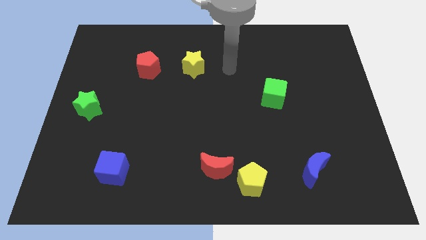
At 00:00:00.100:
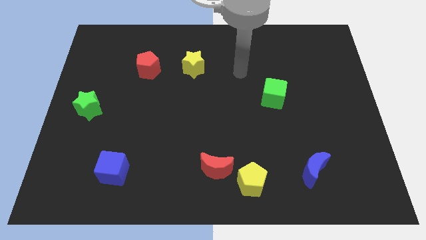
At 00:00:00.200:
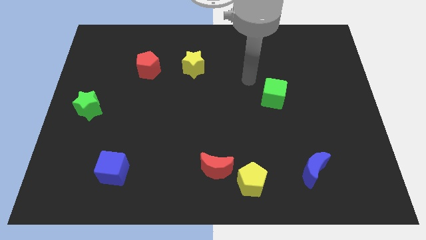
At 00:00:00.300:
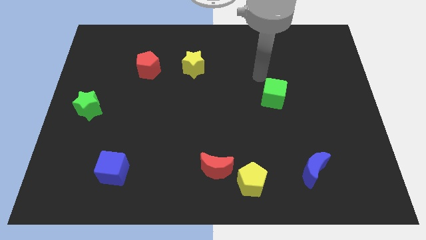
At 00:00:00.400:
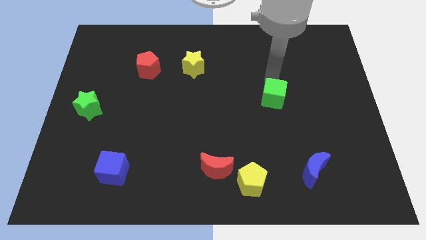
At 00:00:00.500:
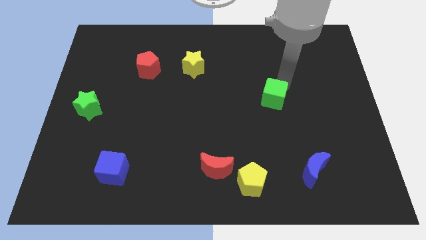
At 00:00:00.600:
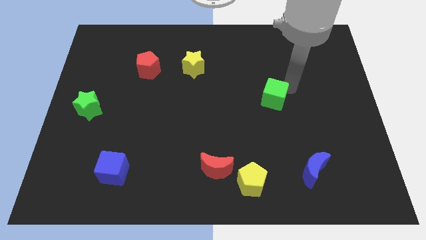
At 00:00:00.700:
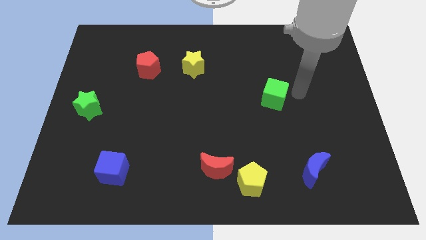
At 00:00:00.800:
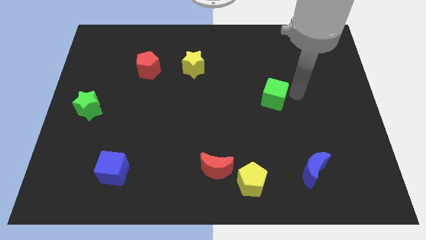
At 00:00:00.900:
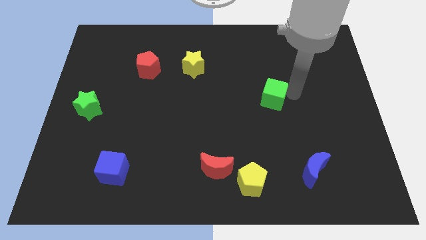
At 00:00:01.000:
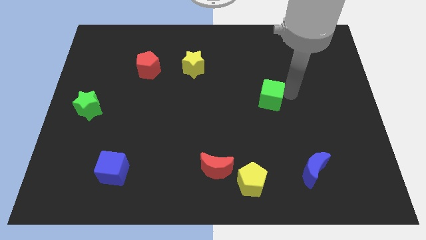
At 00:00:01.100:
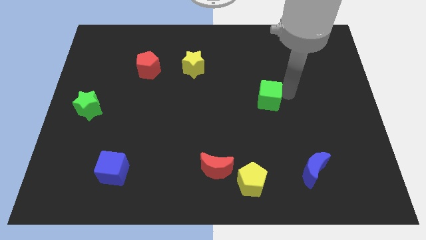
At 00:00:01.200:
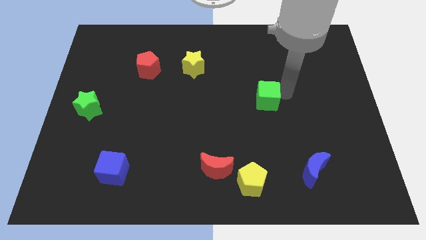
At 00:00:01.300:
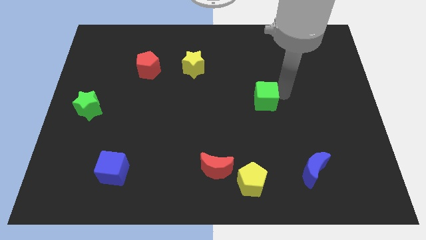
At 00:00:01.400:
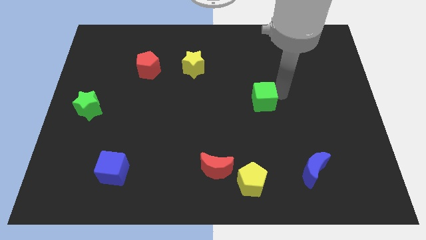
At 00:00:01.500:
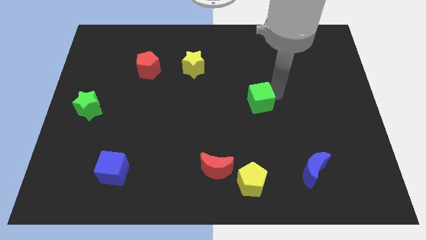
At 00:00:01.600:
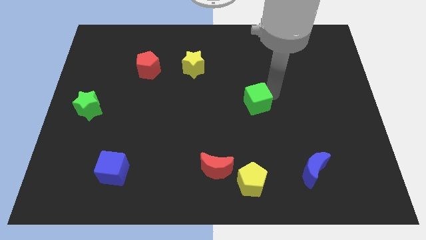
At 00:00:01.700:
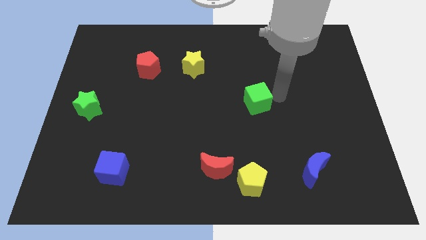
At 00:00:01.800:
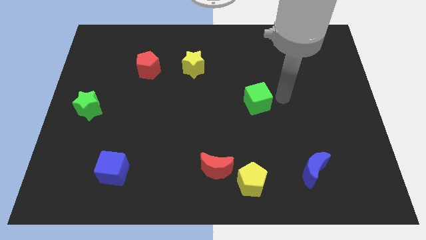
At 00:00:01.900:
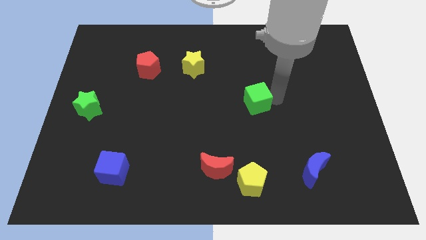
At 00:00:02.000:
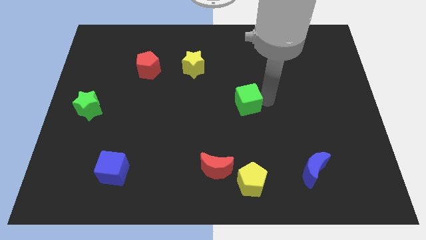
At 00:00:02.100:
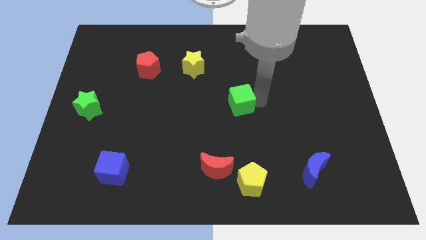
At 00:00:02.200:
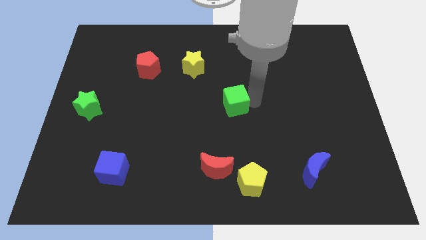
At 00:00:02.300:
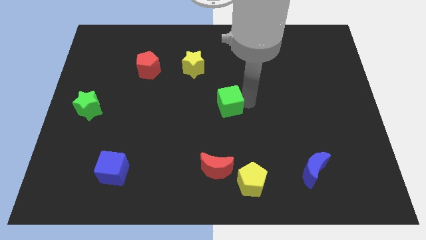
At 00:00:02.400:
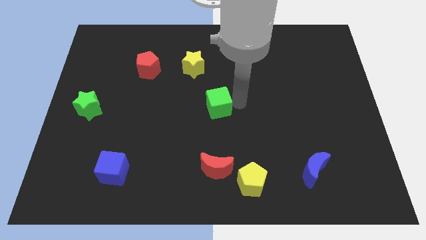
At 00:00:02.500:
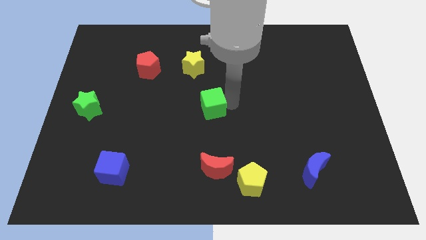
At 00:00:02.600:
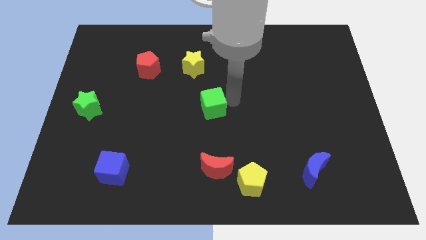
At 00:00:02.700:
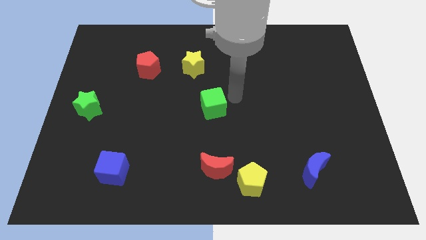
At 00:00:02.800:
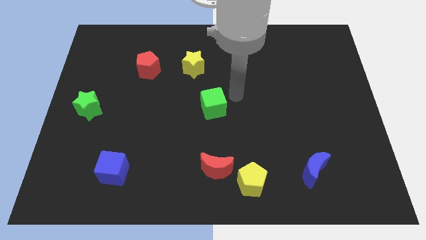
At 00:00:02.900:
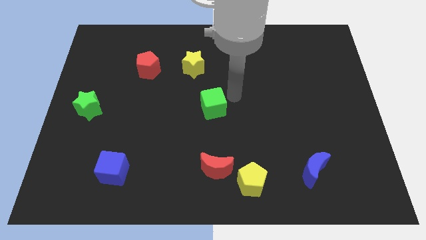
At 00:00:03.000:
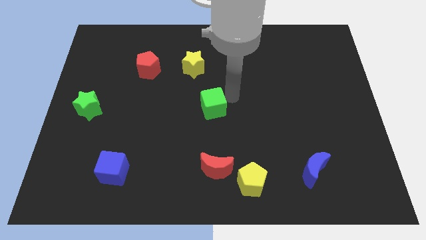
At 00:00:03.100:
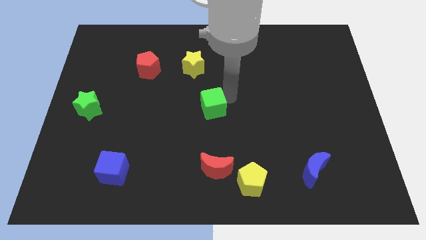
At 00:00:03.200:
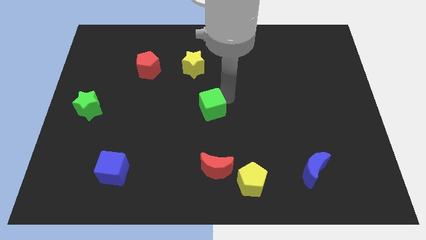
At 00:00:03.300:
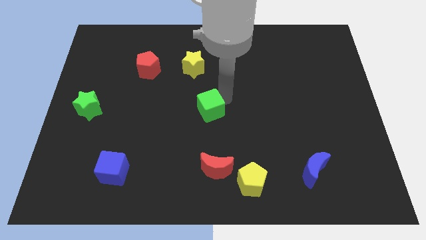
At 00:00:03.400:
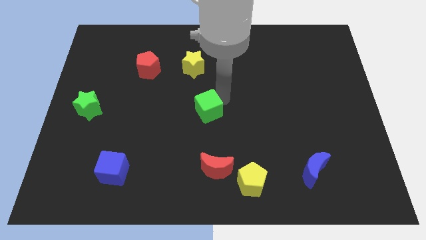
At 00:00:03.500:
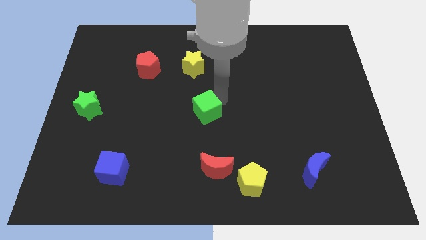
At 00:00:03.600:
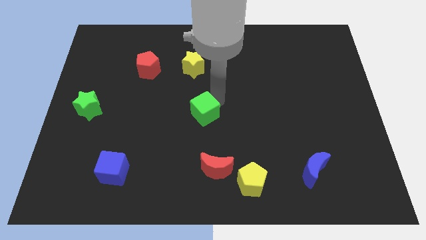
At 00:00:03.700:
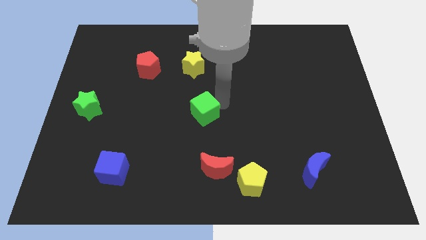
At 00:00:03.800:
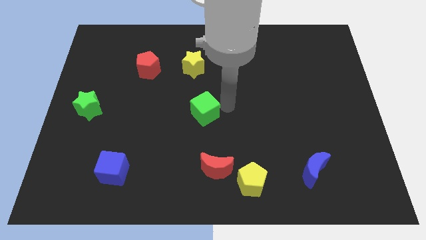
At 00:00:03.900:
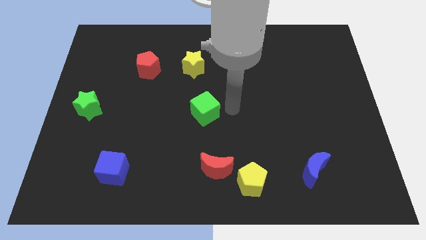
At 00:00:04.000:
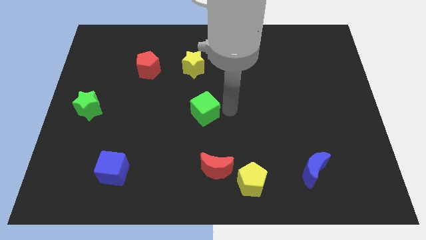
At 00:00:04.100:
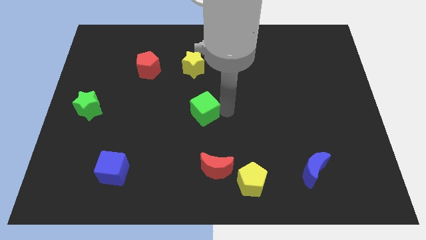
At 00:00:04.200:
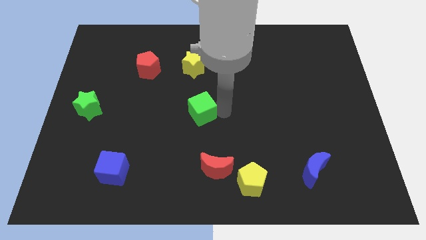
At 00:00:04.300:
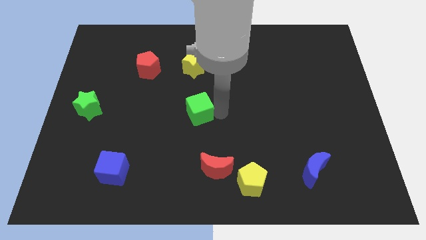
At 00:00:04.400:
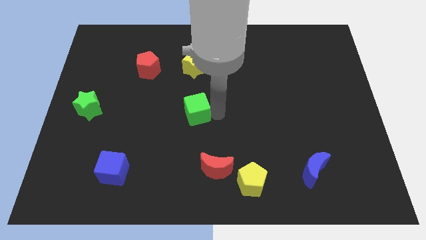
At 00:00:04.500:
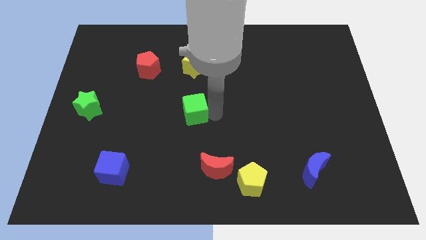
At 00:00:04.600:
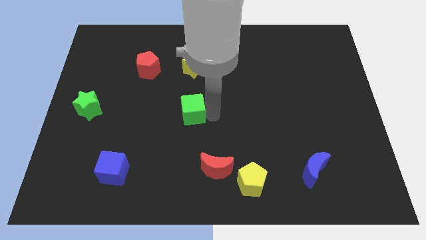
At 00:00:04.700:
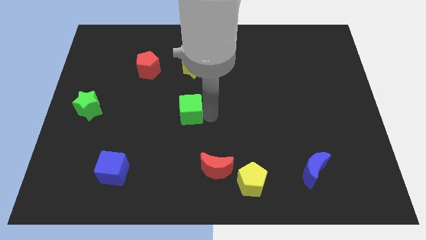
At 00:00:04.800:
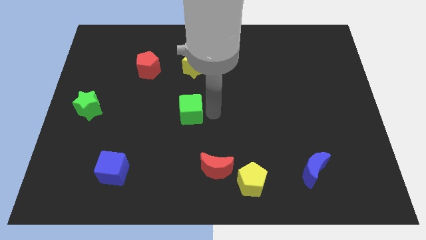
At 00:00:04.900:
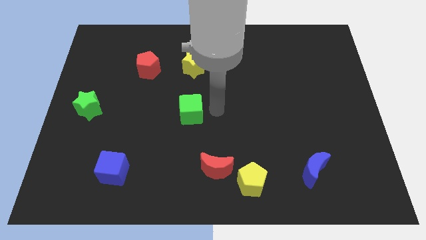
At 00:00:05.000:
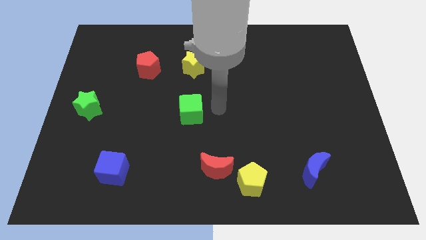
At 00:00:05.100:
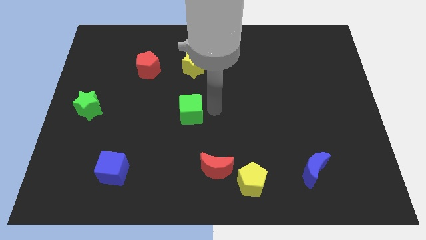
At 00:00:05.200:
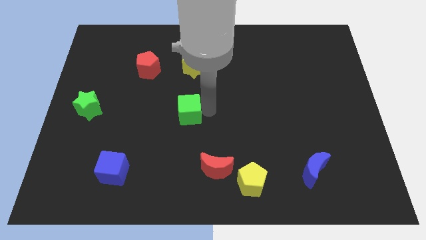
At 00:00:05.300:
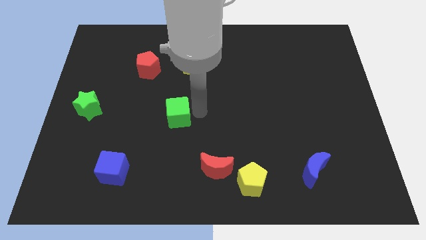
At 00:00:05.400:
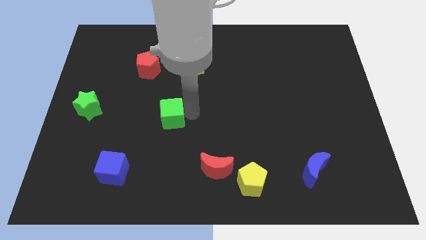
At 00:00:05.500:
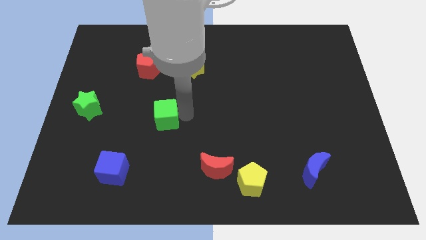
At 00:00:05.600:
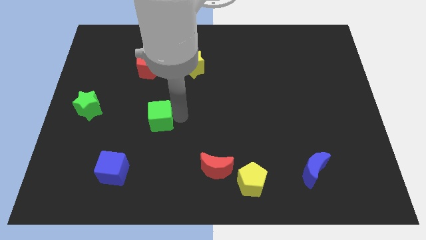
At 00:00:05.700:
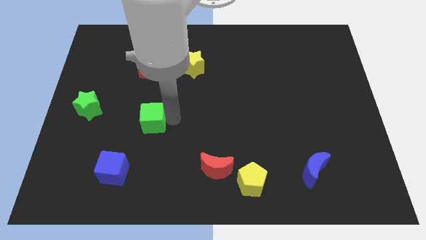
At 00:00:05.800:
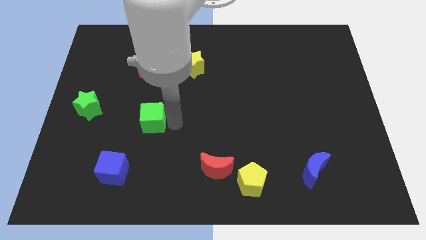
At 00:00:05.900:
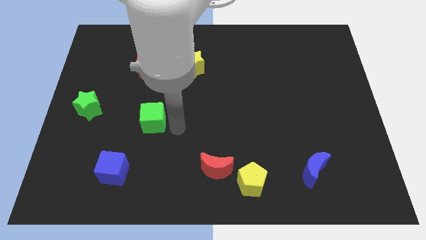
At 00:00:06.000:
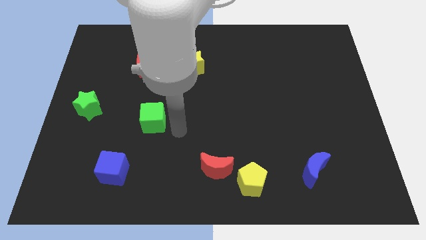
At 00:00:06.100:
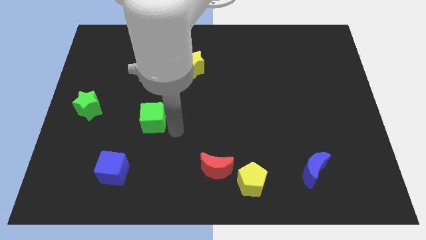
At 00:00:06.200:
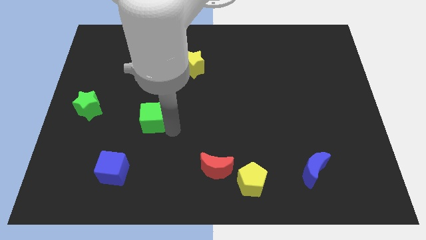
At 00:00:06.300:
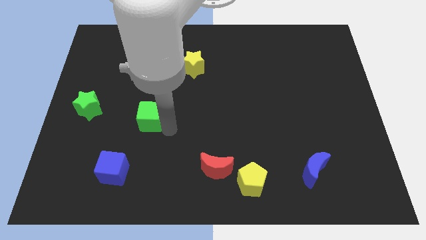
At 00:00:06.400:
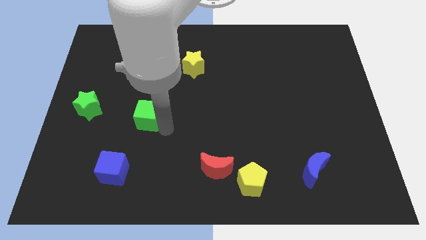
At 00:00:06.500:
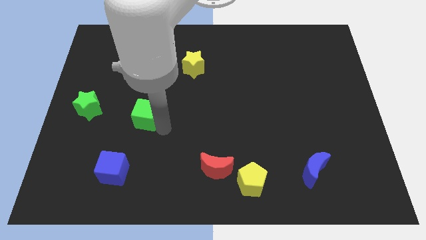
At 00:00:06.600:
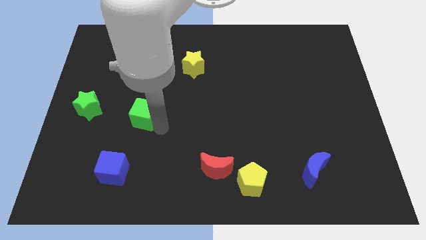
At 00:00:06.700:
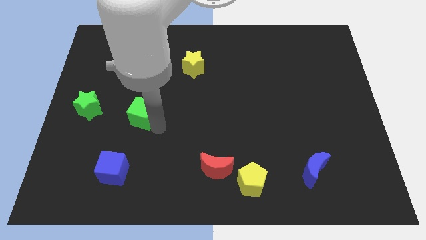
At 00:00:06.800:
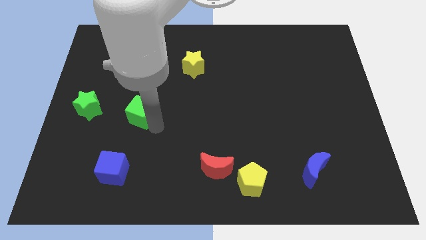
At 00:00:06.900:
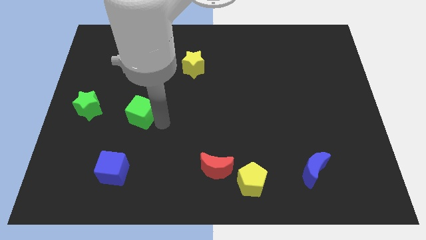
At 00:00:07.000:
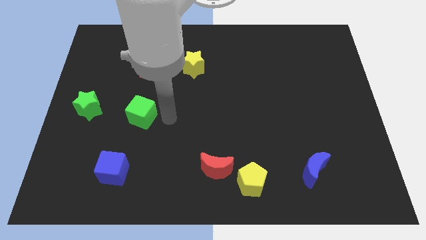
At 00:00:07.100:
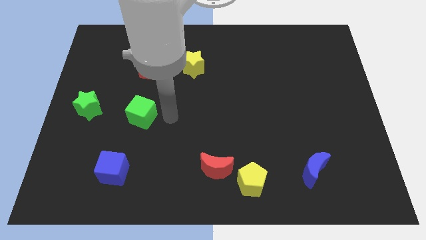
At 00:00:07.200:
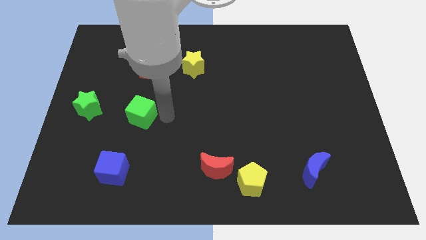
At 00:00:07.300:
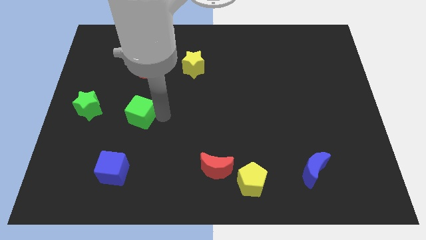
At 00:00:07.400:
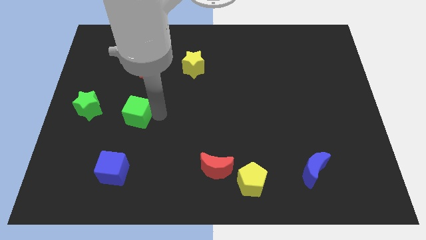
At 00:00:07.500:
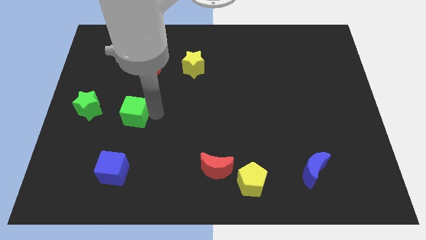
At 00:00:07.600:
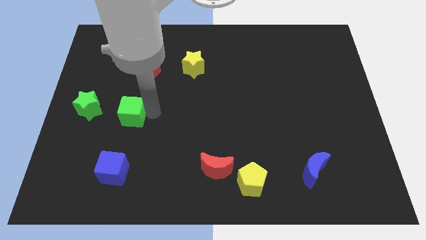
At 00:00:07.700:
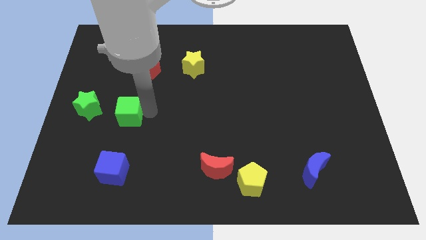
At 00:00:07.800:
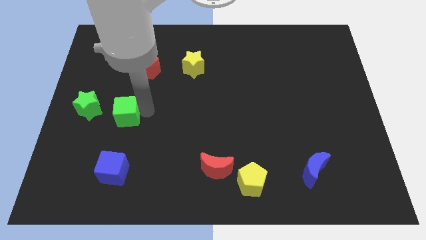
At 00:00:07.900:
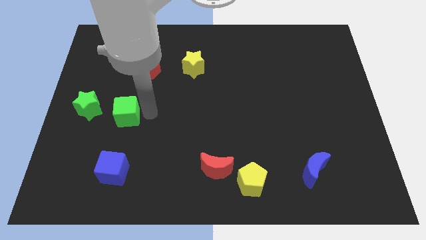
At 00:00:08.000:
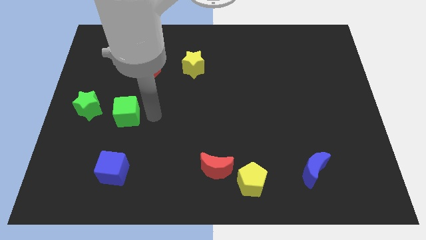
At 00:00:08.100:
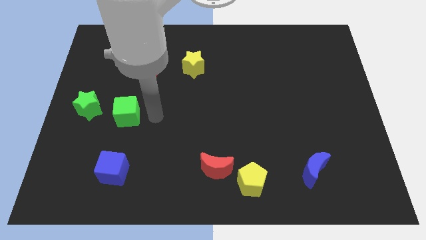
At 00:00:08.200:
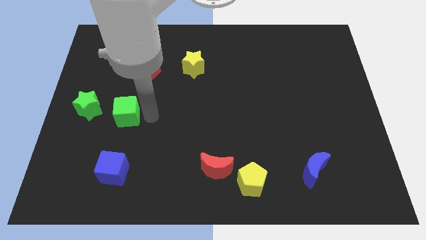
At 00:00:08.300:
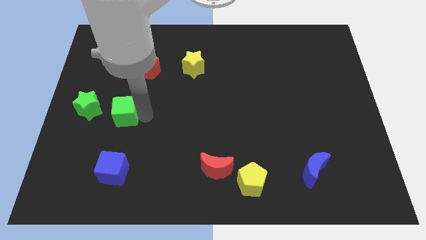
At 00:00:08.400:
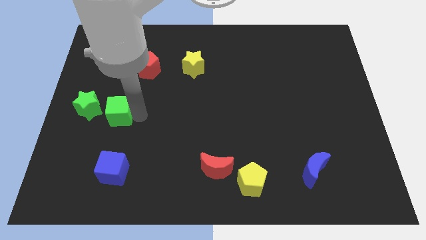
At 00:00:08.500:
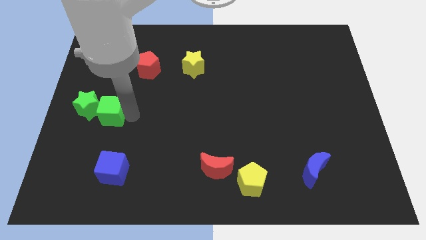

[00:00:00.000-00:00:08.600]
slide the green cube towards the green star
